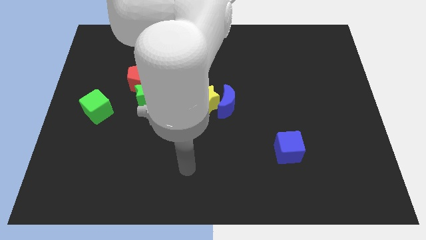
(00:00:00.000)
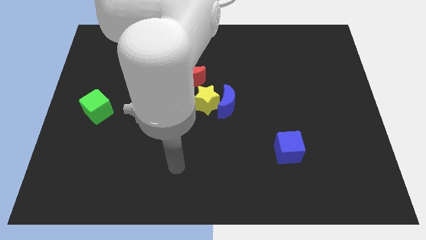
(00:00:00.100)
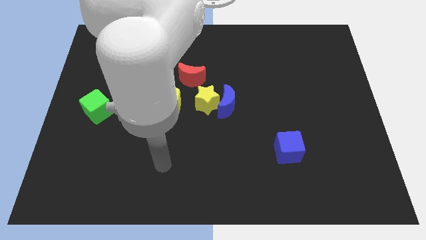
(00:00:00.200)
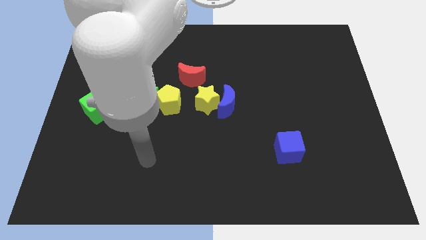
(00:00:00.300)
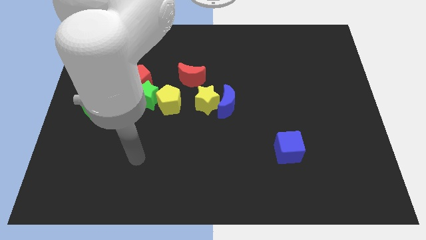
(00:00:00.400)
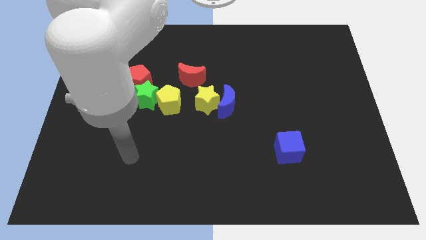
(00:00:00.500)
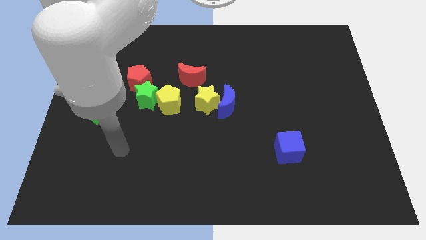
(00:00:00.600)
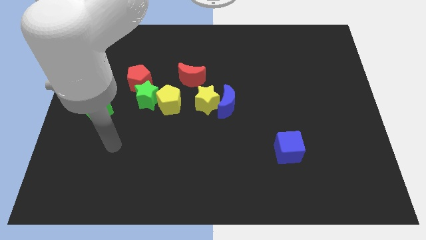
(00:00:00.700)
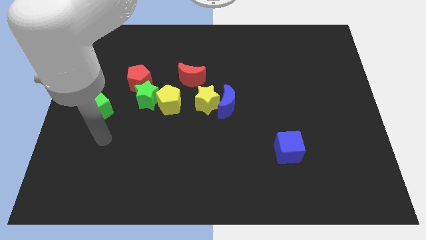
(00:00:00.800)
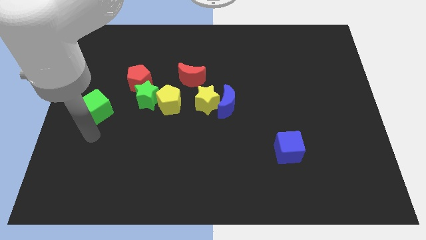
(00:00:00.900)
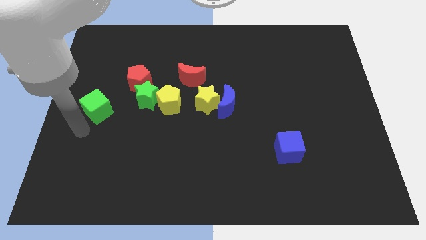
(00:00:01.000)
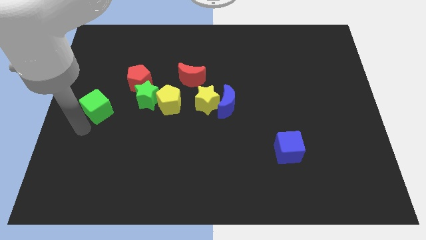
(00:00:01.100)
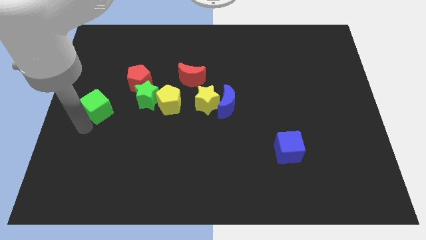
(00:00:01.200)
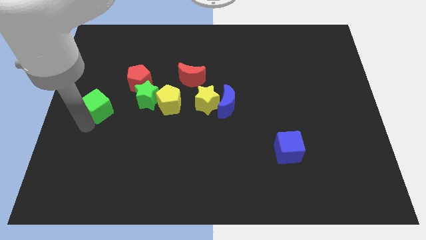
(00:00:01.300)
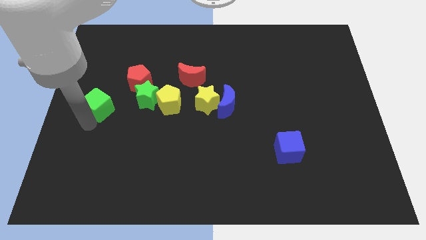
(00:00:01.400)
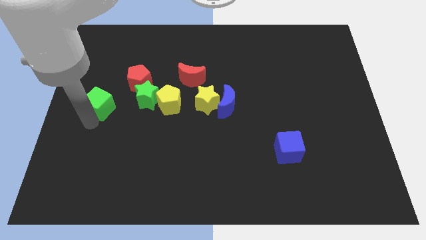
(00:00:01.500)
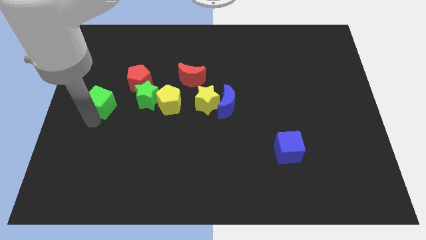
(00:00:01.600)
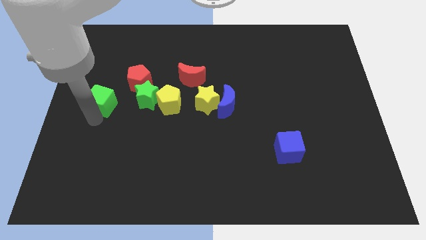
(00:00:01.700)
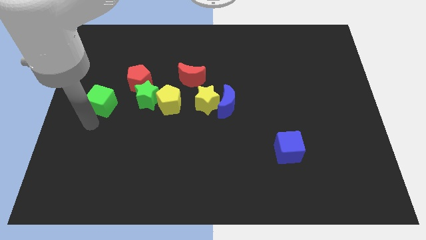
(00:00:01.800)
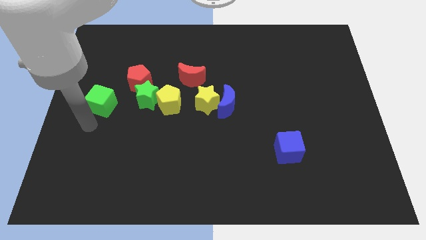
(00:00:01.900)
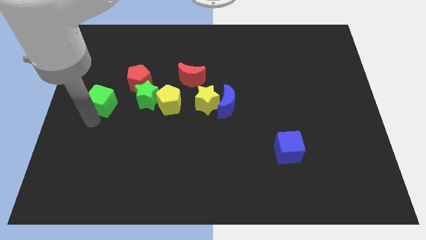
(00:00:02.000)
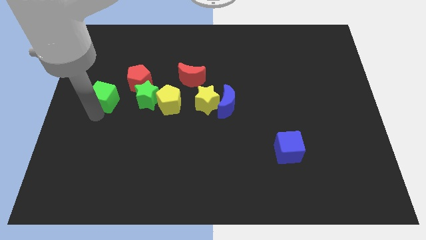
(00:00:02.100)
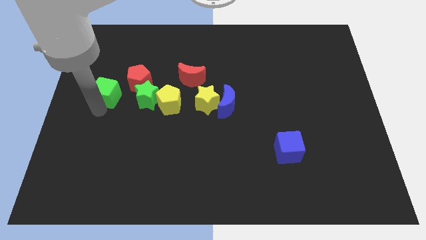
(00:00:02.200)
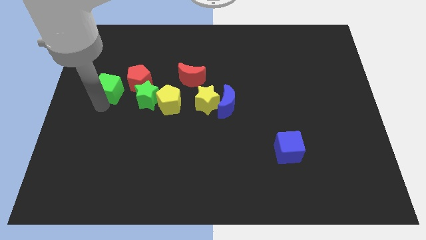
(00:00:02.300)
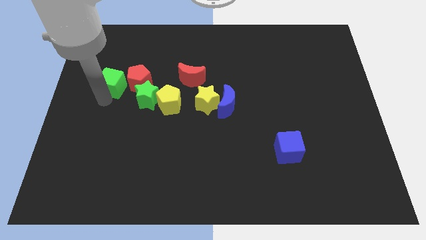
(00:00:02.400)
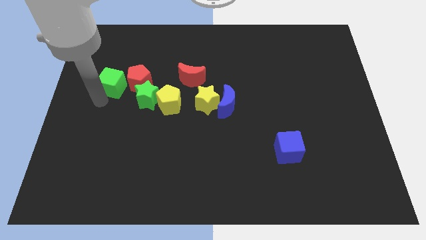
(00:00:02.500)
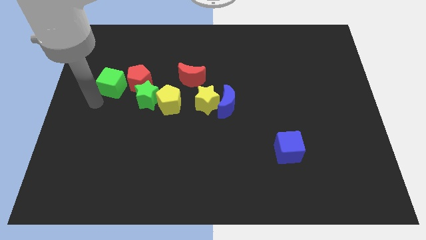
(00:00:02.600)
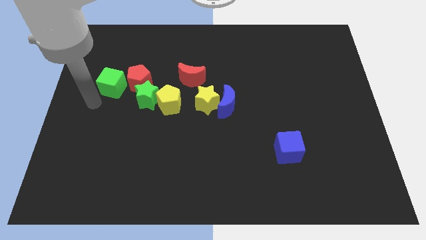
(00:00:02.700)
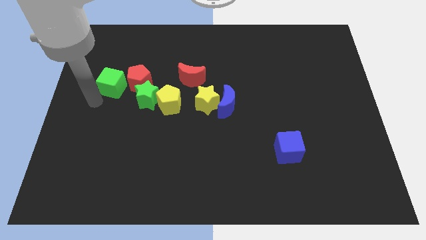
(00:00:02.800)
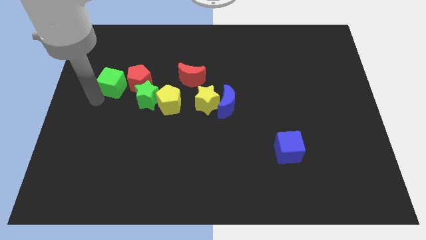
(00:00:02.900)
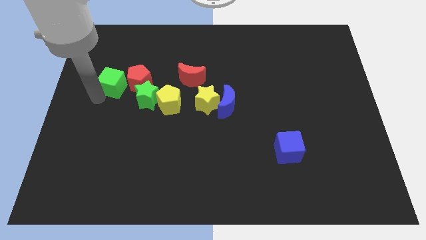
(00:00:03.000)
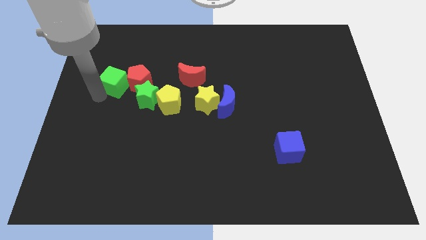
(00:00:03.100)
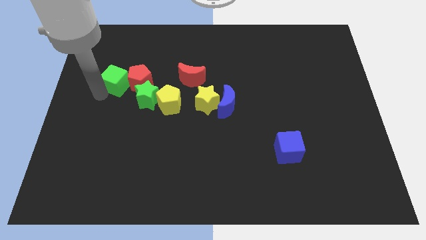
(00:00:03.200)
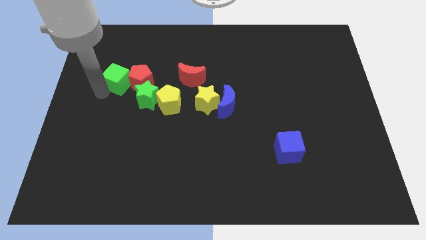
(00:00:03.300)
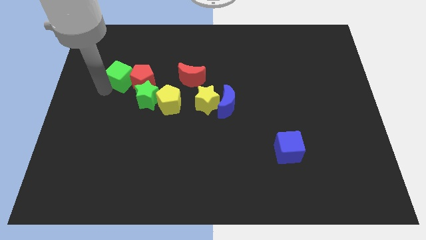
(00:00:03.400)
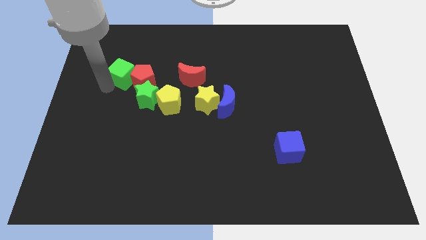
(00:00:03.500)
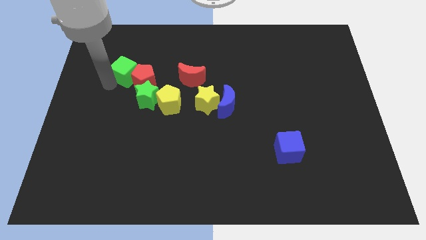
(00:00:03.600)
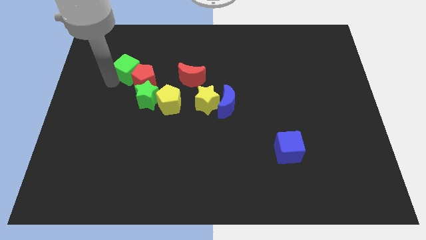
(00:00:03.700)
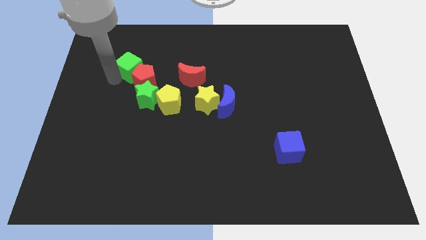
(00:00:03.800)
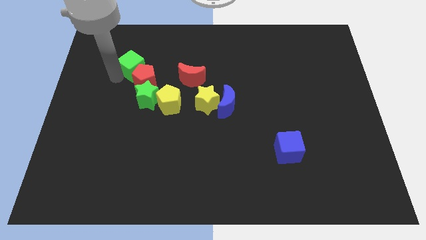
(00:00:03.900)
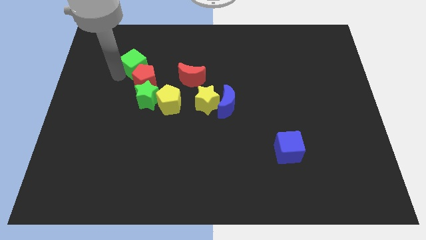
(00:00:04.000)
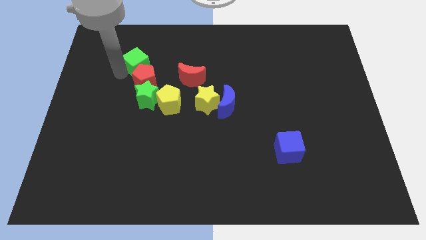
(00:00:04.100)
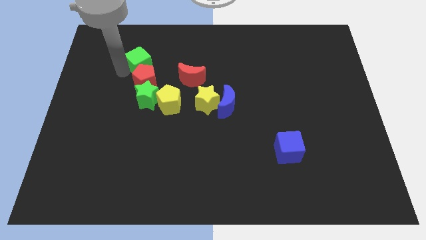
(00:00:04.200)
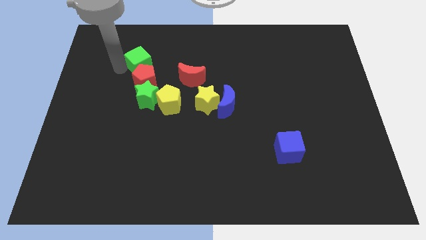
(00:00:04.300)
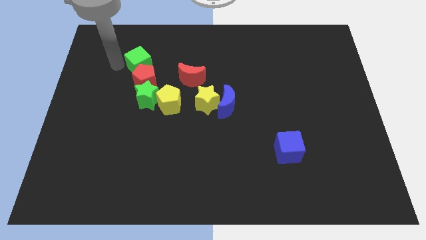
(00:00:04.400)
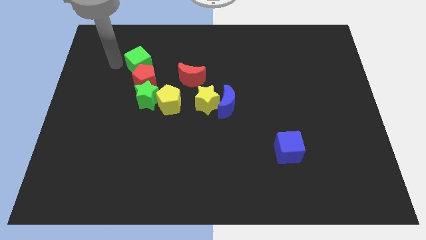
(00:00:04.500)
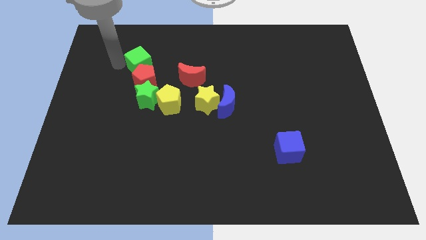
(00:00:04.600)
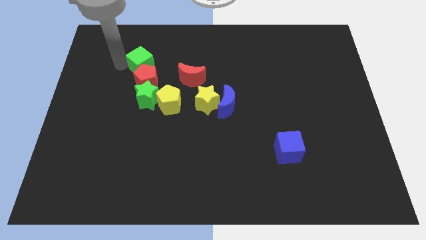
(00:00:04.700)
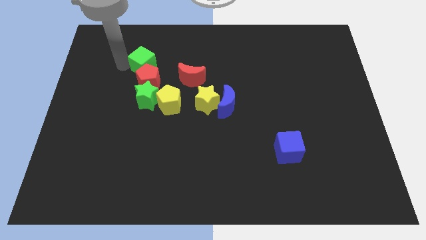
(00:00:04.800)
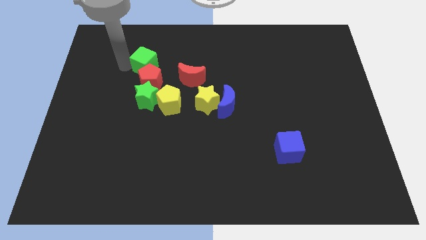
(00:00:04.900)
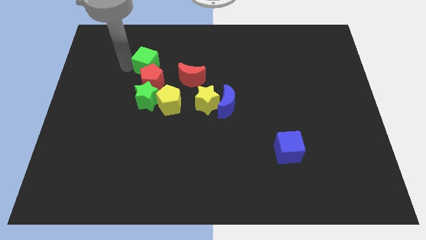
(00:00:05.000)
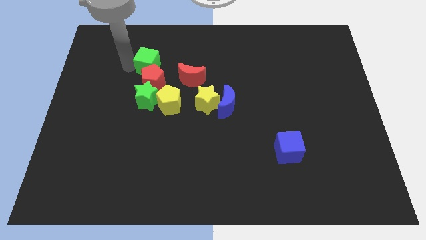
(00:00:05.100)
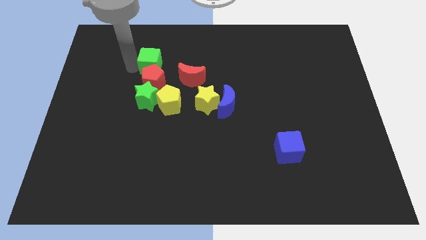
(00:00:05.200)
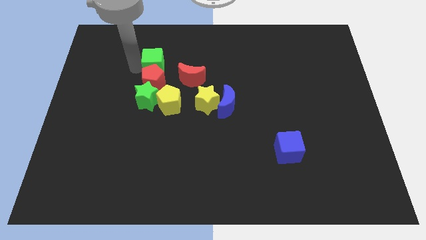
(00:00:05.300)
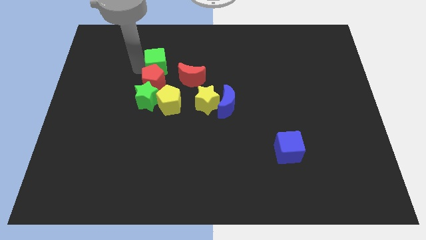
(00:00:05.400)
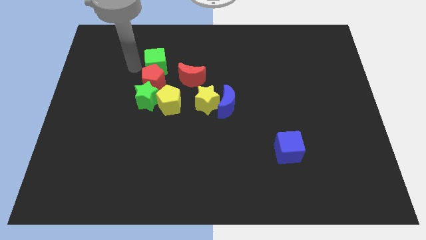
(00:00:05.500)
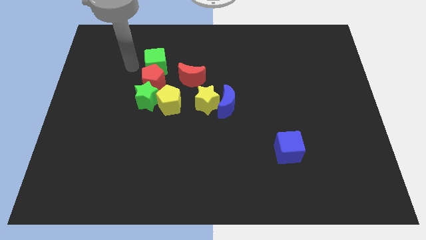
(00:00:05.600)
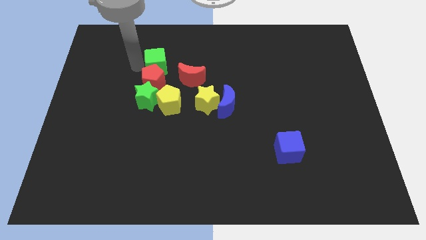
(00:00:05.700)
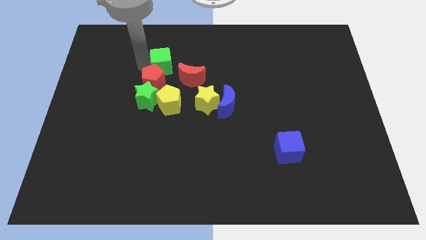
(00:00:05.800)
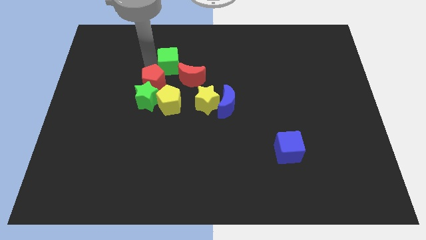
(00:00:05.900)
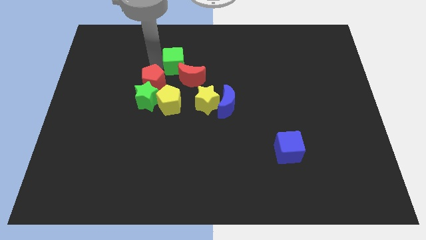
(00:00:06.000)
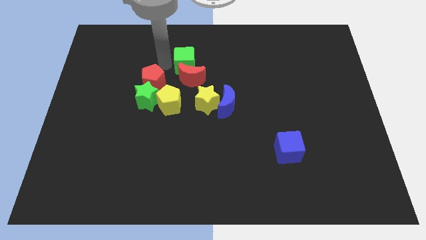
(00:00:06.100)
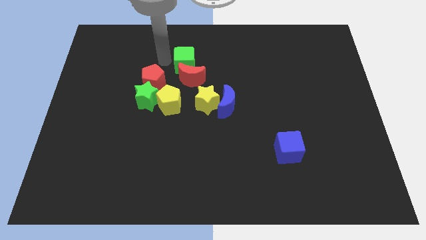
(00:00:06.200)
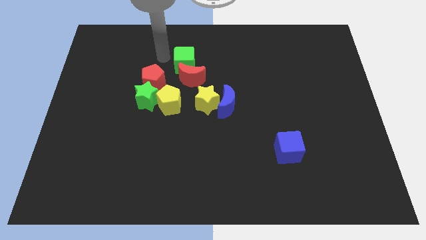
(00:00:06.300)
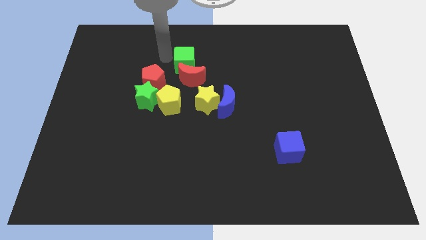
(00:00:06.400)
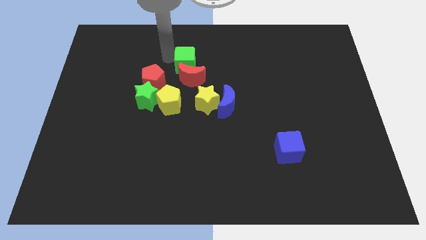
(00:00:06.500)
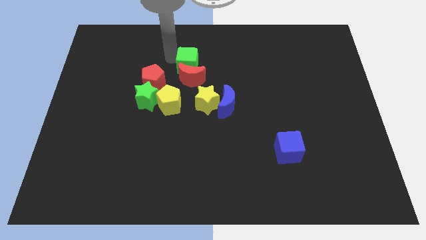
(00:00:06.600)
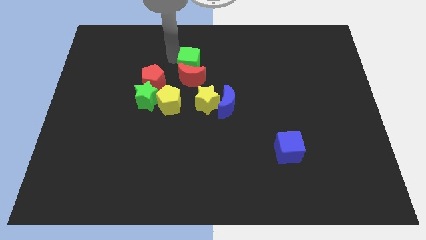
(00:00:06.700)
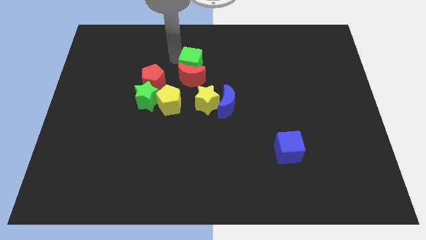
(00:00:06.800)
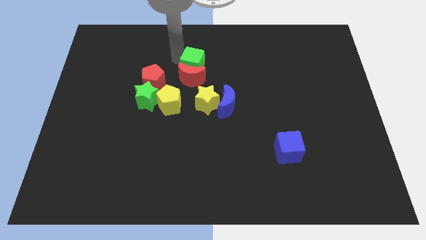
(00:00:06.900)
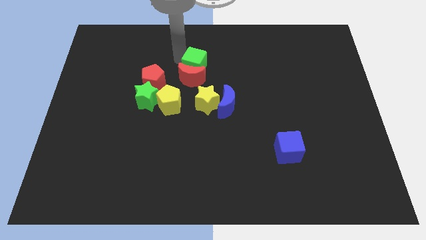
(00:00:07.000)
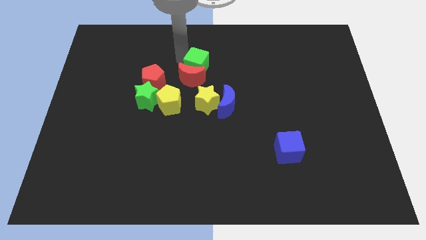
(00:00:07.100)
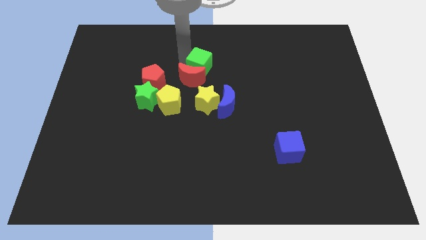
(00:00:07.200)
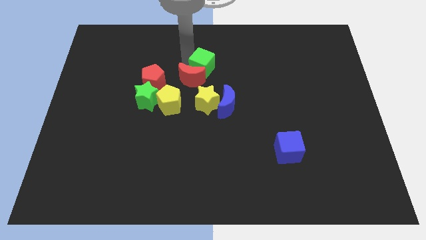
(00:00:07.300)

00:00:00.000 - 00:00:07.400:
slide the green cube to the right side of the red moon
